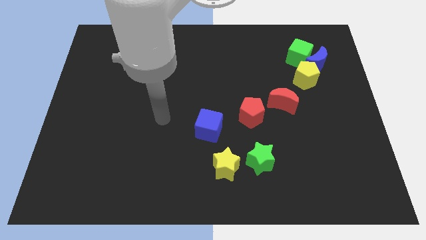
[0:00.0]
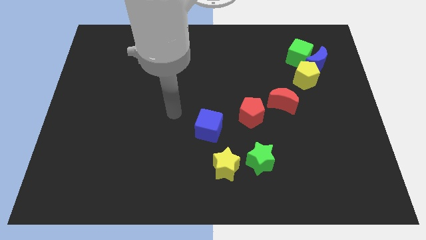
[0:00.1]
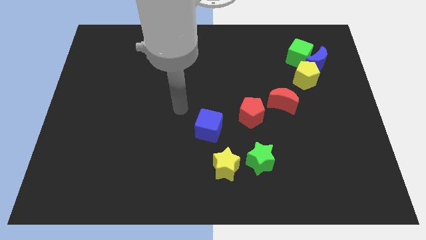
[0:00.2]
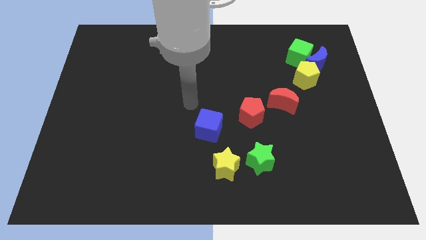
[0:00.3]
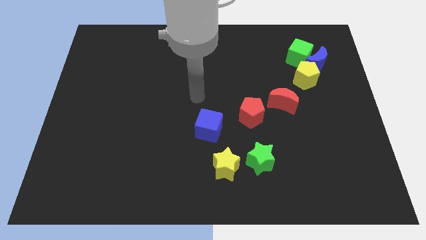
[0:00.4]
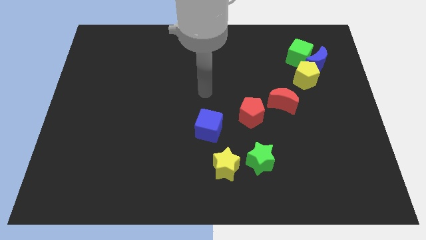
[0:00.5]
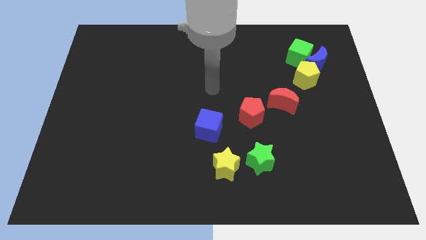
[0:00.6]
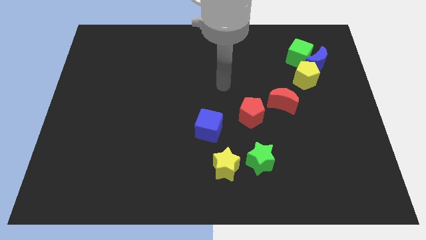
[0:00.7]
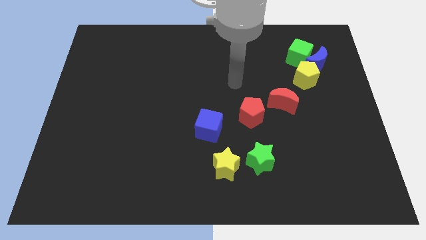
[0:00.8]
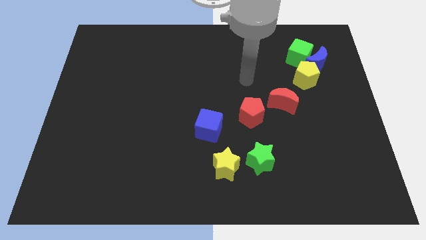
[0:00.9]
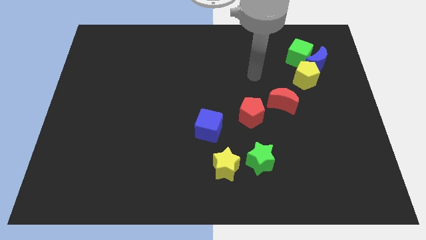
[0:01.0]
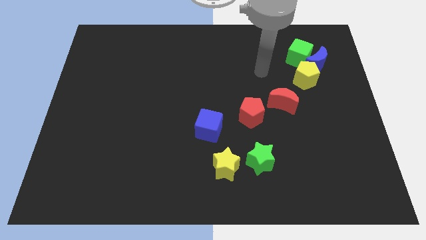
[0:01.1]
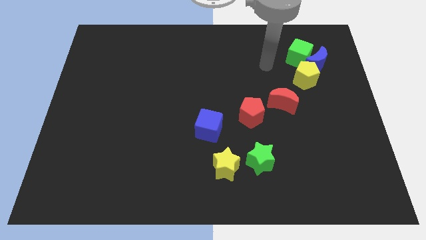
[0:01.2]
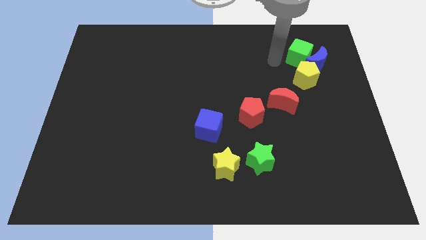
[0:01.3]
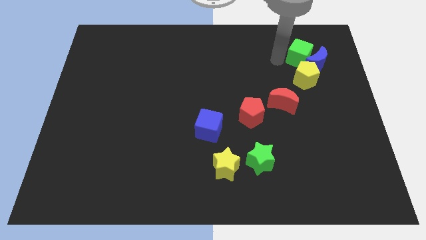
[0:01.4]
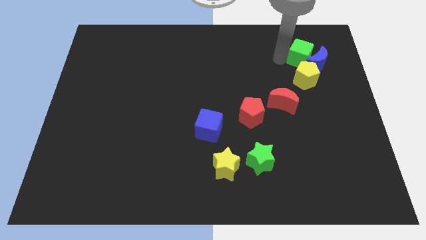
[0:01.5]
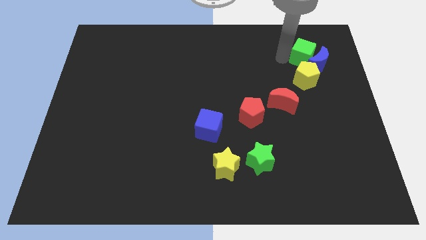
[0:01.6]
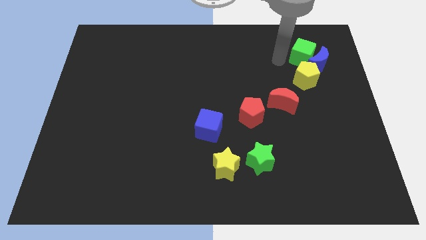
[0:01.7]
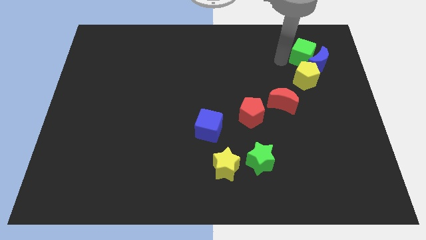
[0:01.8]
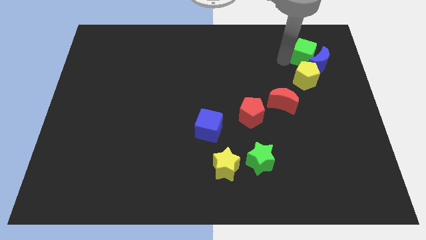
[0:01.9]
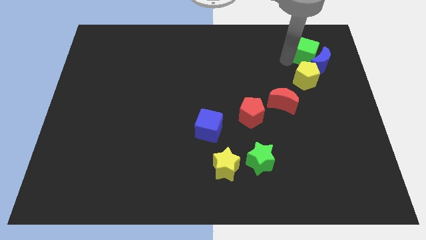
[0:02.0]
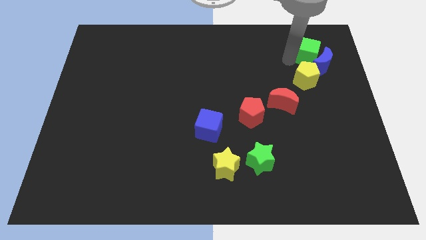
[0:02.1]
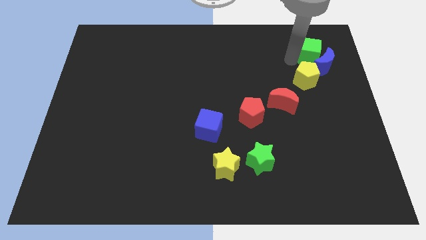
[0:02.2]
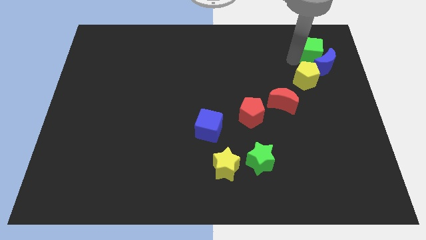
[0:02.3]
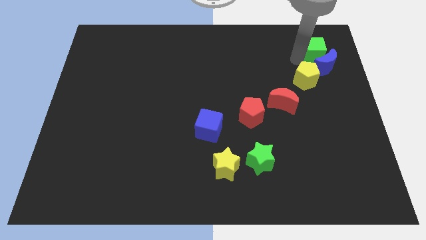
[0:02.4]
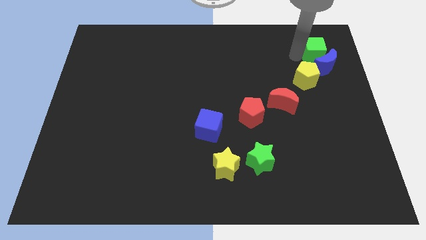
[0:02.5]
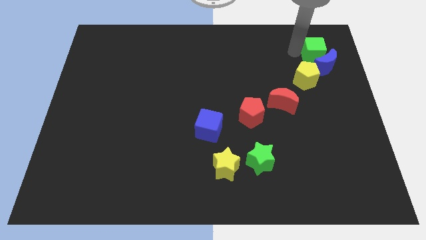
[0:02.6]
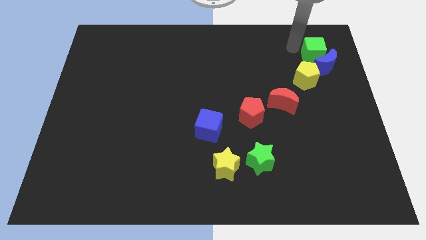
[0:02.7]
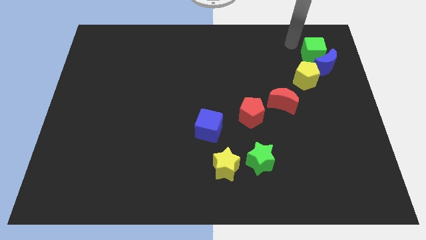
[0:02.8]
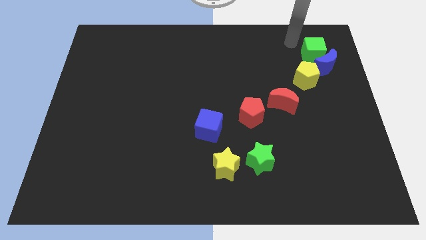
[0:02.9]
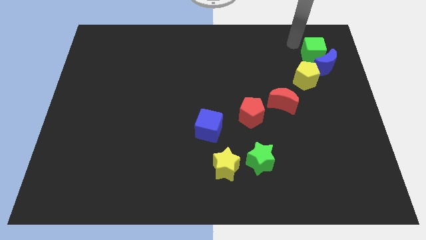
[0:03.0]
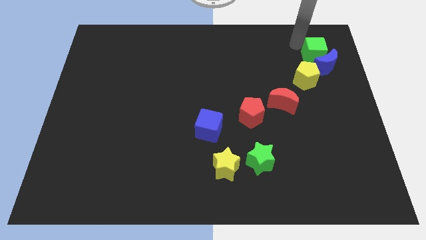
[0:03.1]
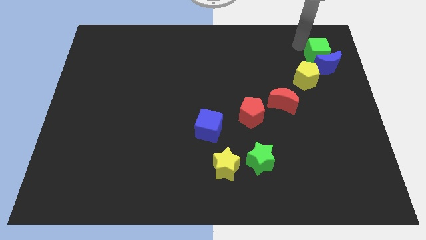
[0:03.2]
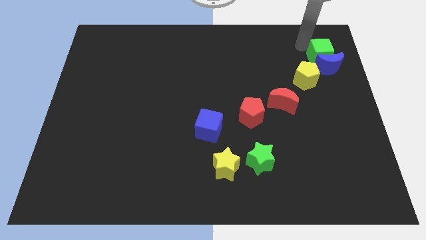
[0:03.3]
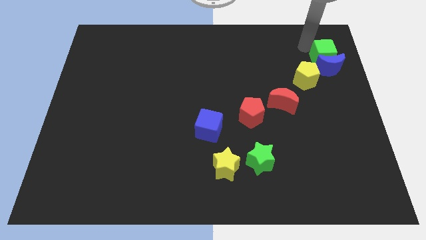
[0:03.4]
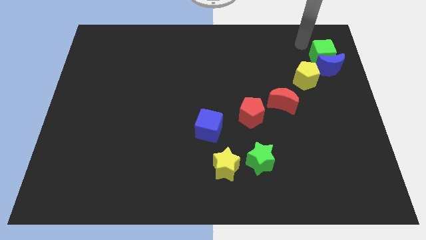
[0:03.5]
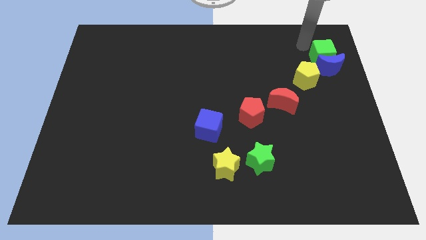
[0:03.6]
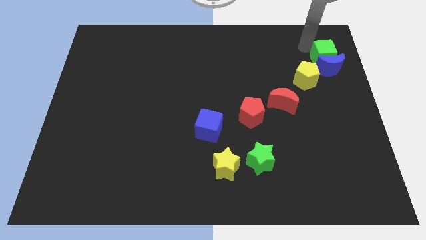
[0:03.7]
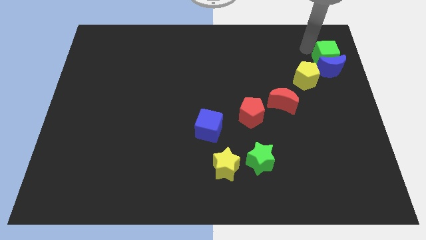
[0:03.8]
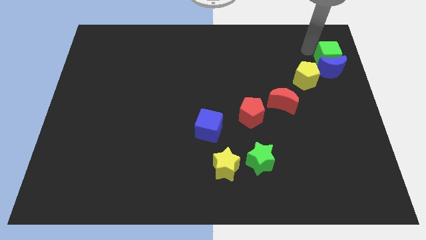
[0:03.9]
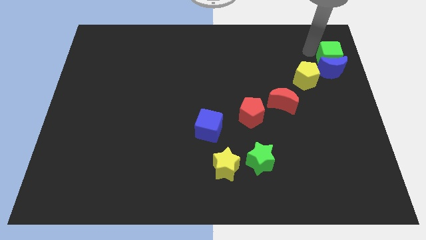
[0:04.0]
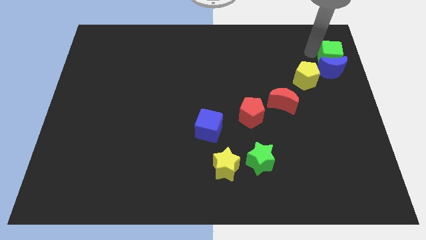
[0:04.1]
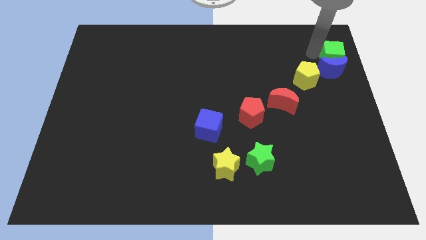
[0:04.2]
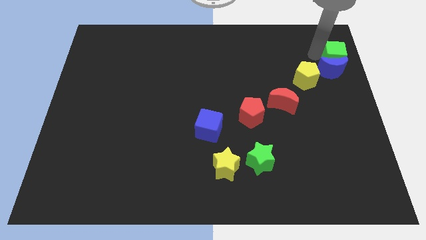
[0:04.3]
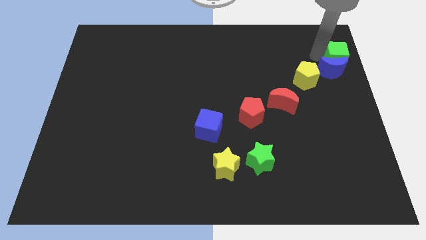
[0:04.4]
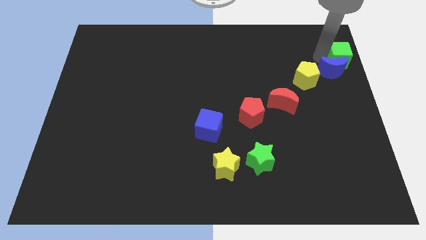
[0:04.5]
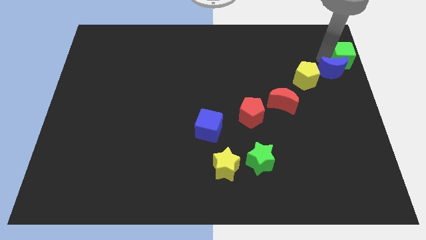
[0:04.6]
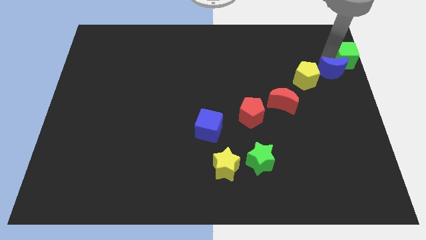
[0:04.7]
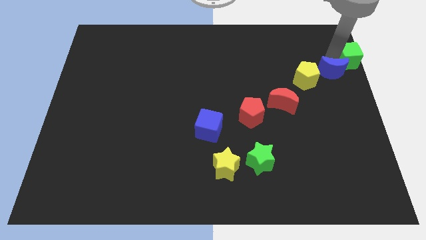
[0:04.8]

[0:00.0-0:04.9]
move the green cube to the right side

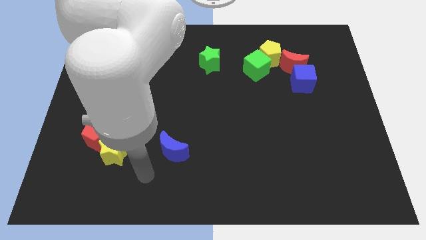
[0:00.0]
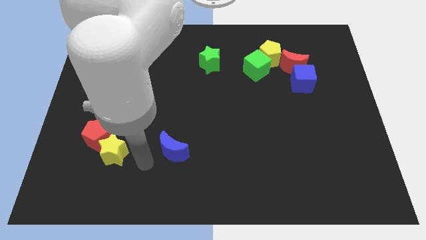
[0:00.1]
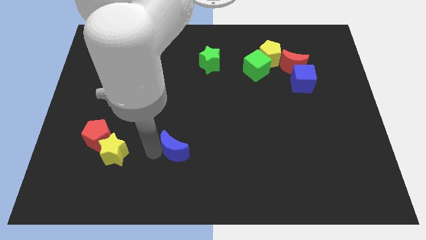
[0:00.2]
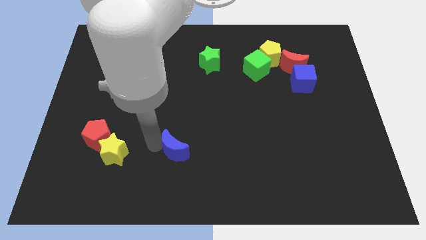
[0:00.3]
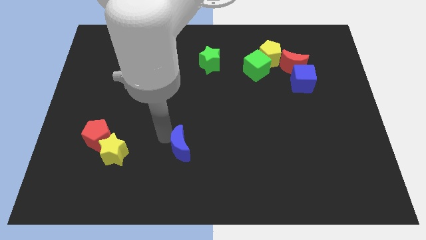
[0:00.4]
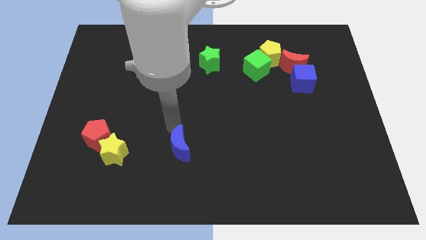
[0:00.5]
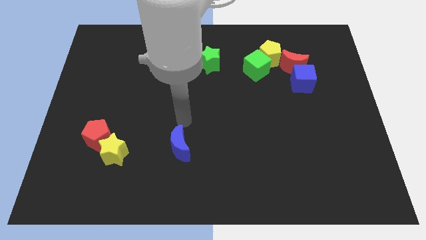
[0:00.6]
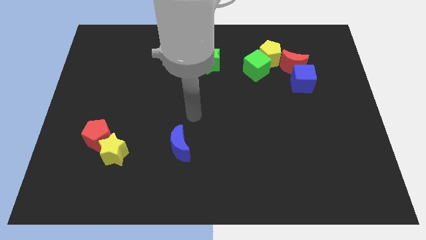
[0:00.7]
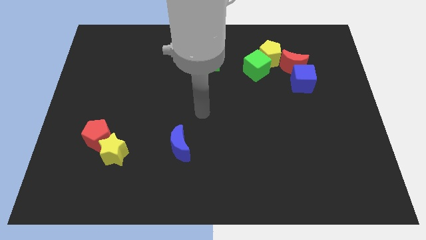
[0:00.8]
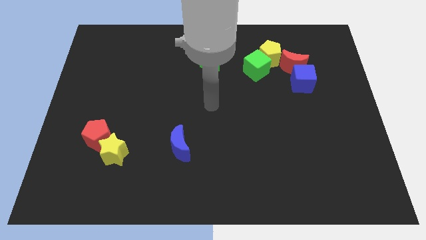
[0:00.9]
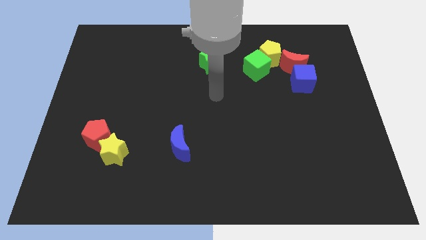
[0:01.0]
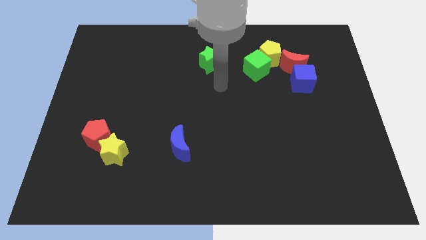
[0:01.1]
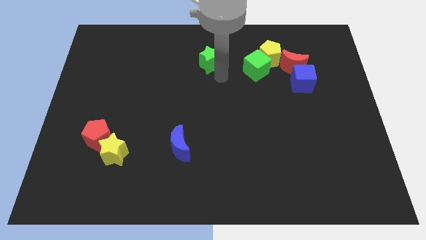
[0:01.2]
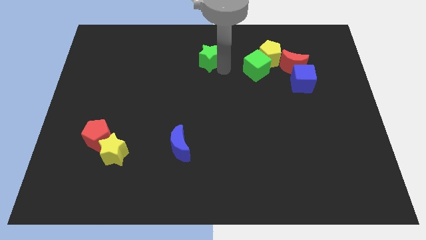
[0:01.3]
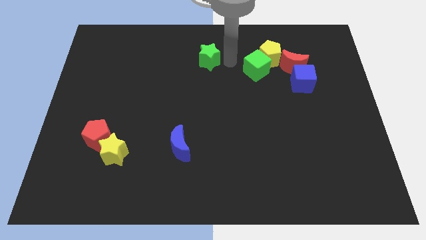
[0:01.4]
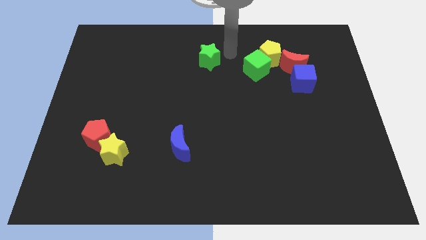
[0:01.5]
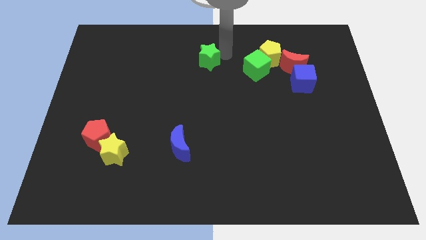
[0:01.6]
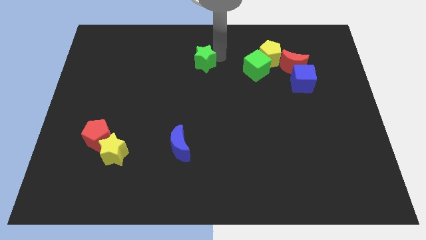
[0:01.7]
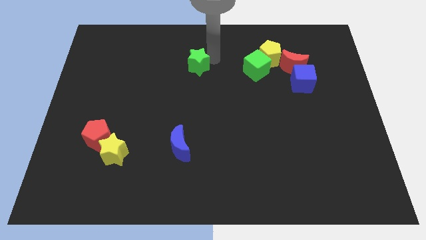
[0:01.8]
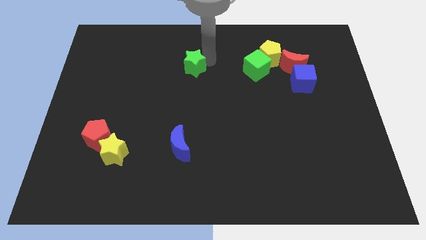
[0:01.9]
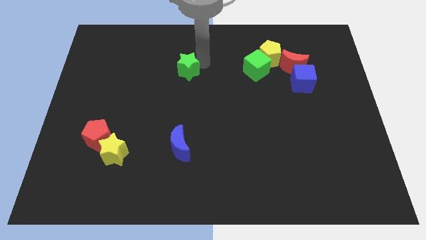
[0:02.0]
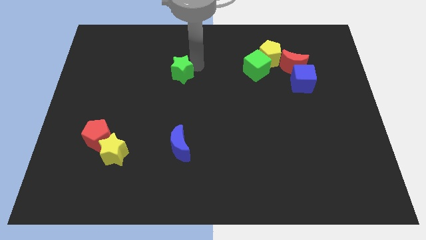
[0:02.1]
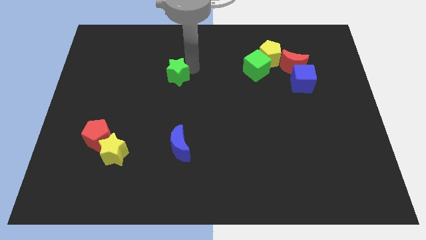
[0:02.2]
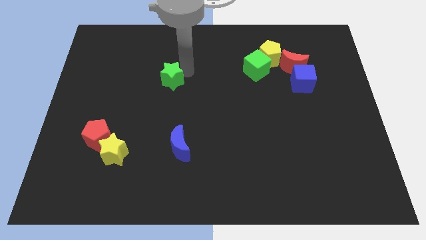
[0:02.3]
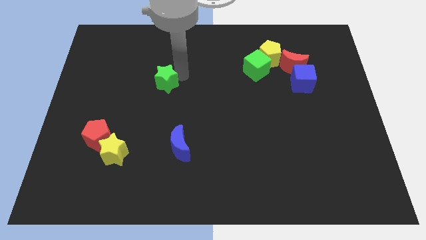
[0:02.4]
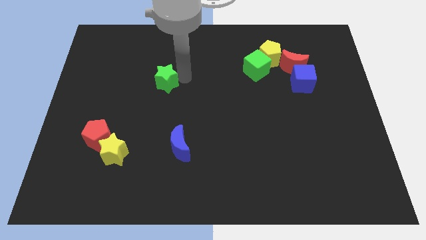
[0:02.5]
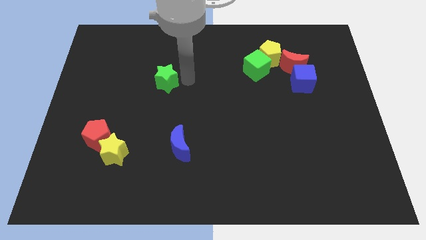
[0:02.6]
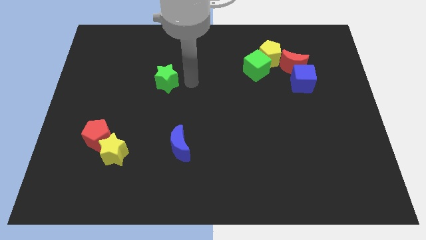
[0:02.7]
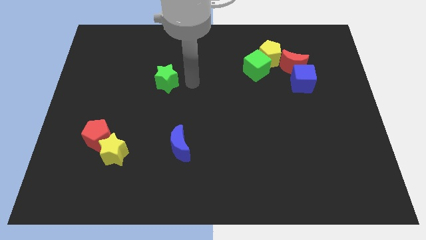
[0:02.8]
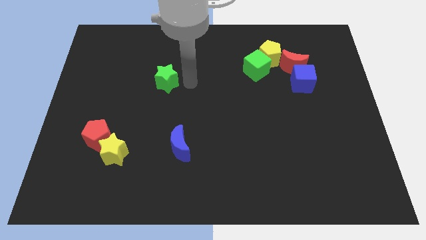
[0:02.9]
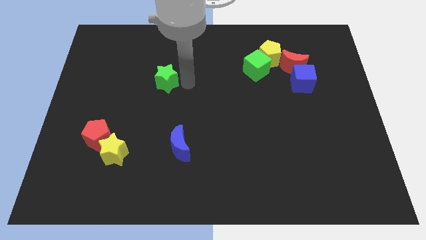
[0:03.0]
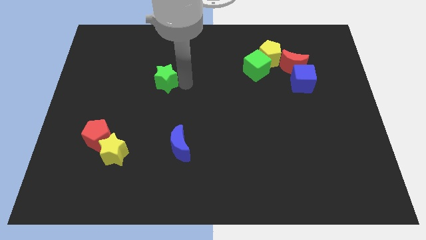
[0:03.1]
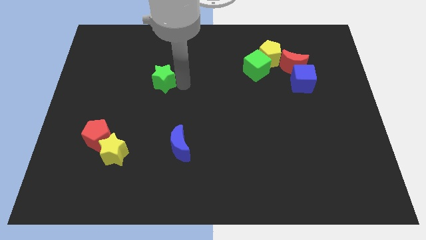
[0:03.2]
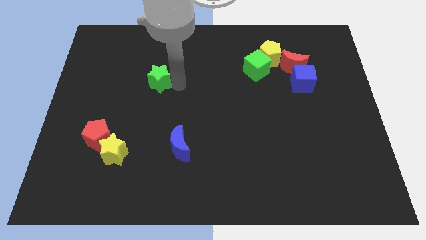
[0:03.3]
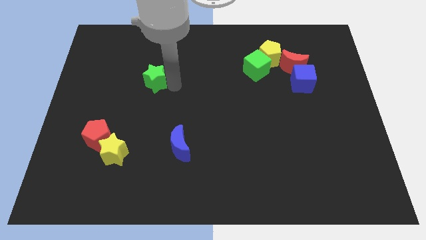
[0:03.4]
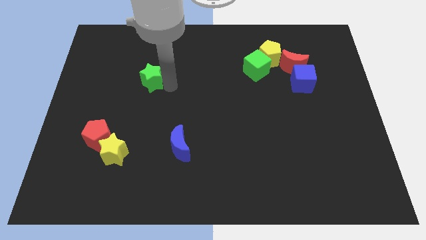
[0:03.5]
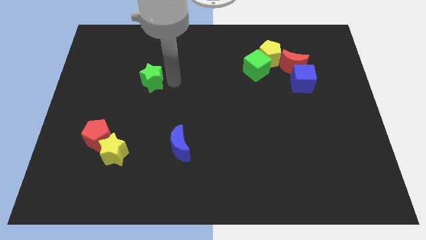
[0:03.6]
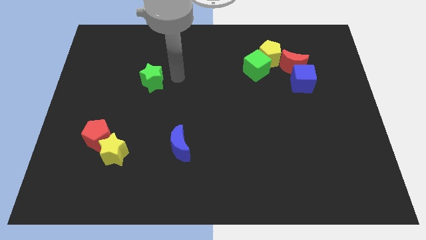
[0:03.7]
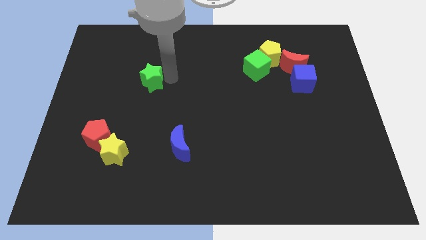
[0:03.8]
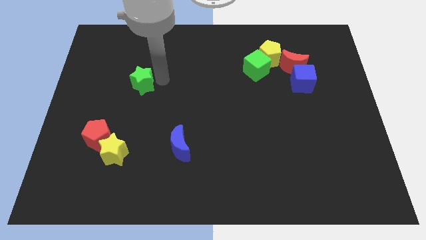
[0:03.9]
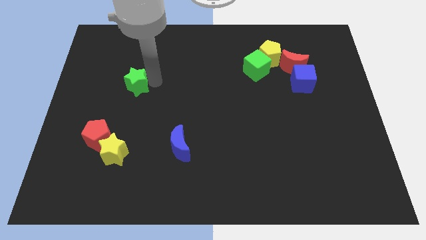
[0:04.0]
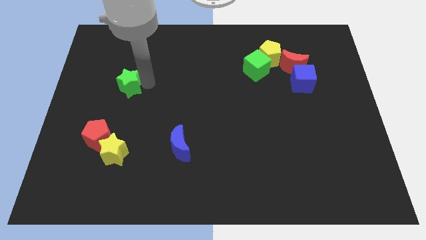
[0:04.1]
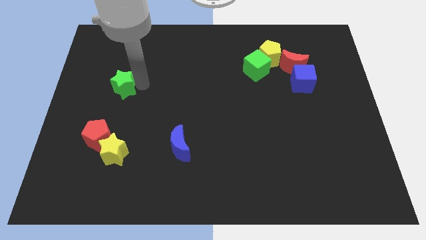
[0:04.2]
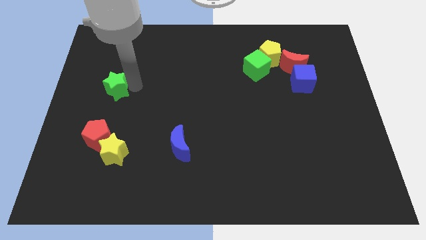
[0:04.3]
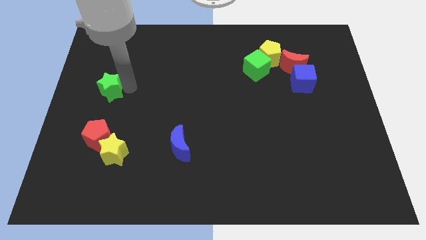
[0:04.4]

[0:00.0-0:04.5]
move the green star to the left side of the board
